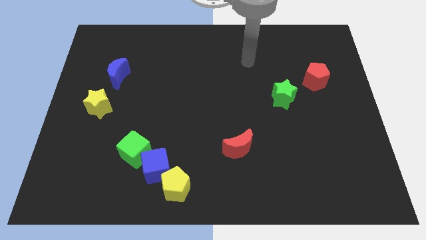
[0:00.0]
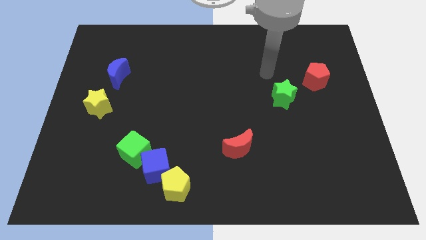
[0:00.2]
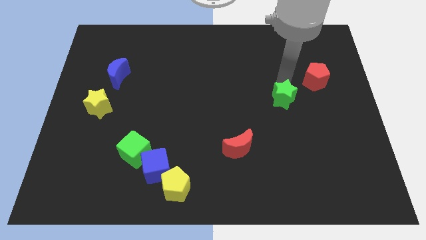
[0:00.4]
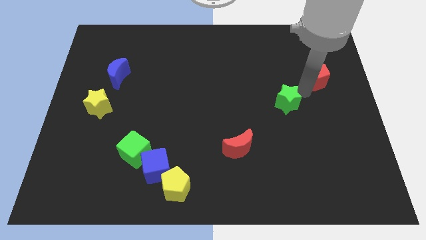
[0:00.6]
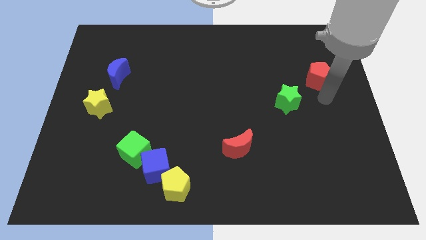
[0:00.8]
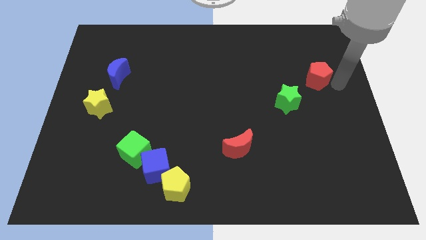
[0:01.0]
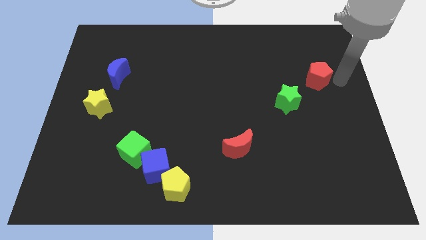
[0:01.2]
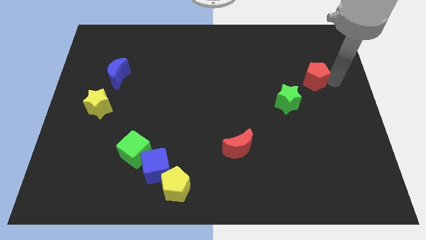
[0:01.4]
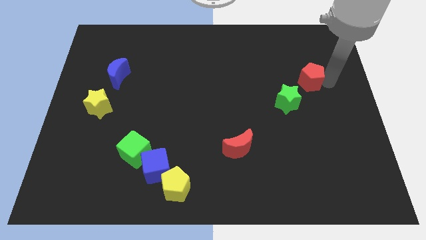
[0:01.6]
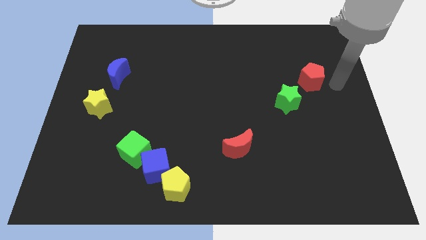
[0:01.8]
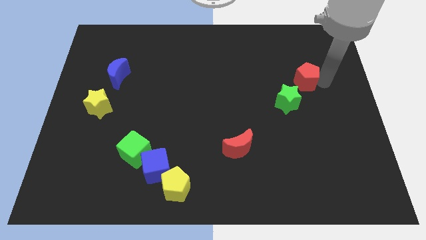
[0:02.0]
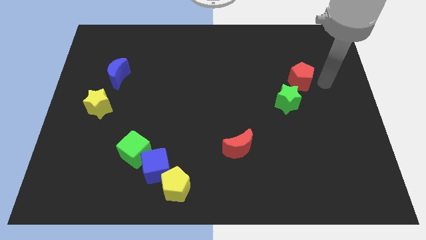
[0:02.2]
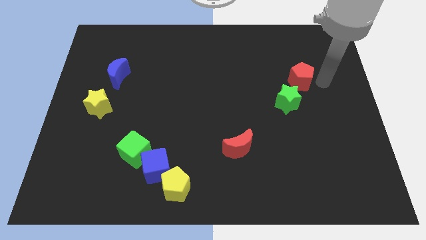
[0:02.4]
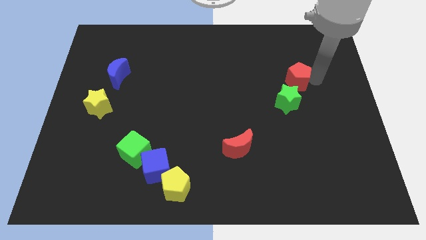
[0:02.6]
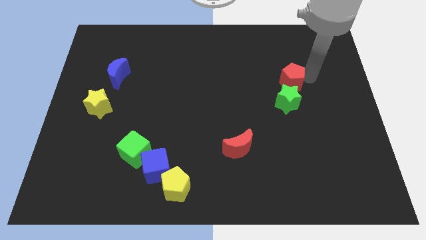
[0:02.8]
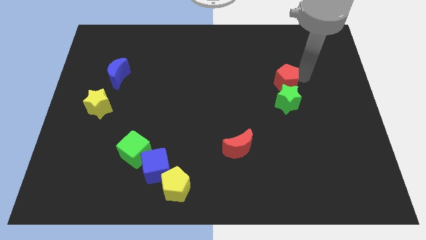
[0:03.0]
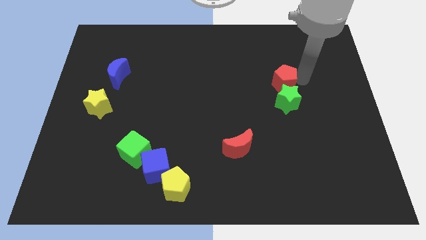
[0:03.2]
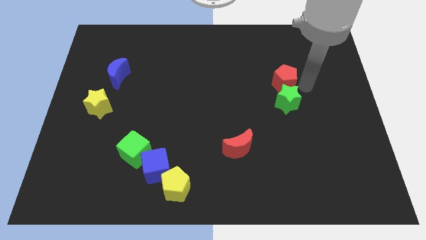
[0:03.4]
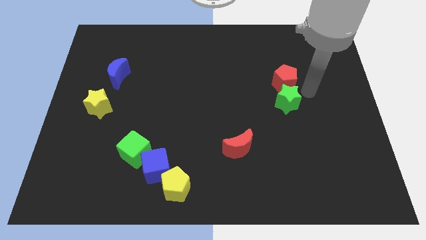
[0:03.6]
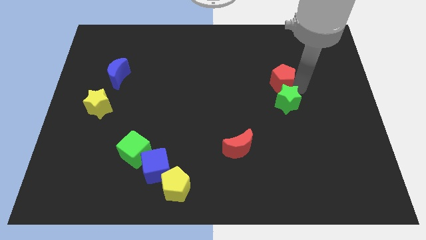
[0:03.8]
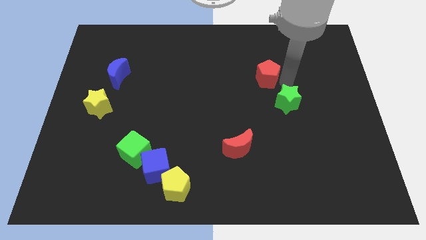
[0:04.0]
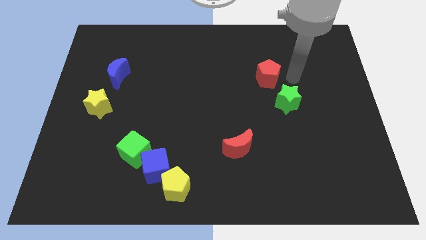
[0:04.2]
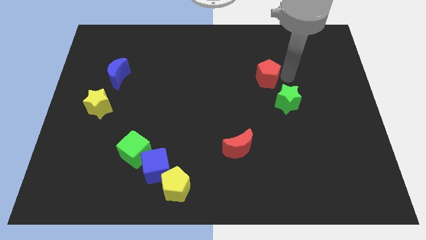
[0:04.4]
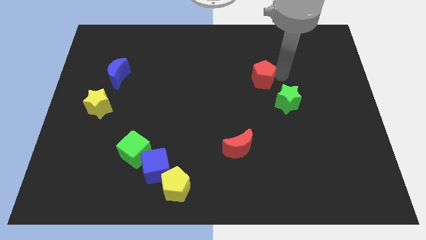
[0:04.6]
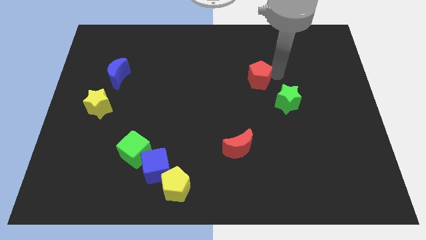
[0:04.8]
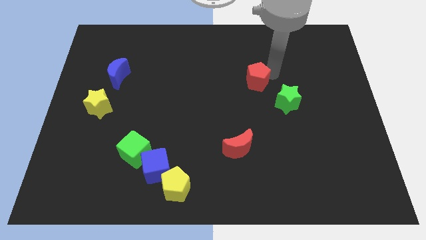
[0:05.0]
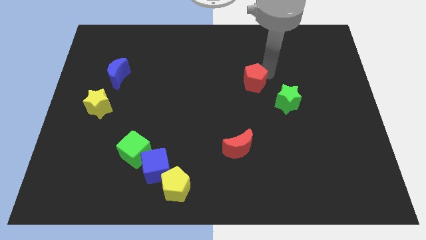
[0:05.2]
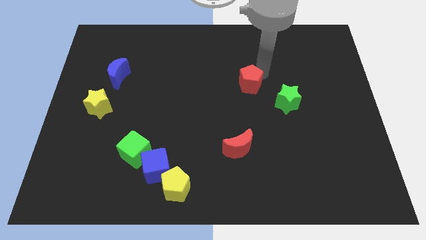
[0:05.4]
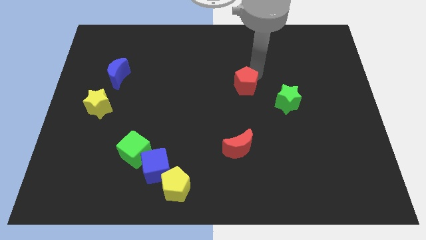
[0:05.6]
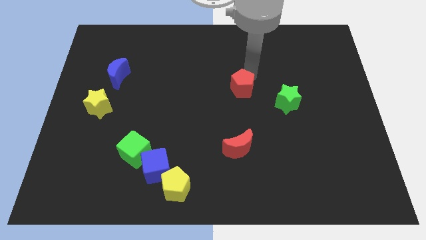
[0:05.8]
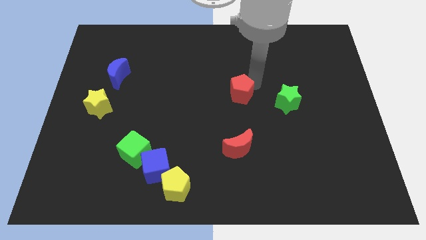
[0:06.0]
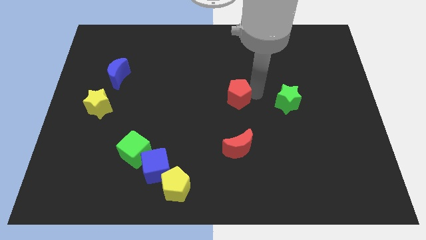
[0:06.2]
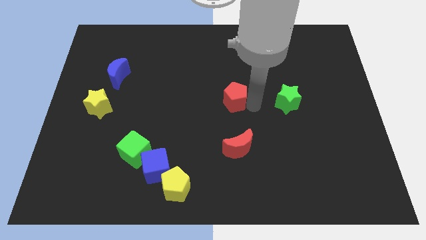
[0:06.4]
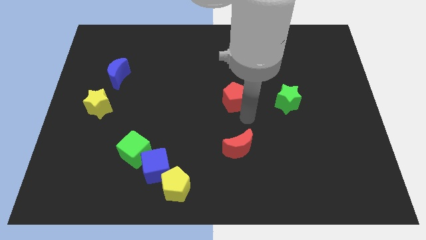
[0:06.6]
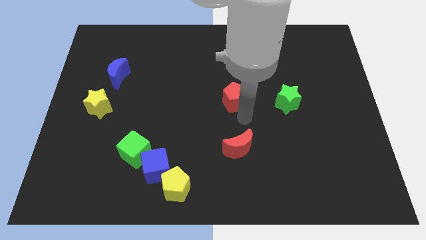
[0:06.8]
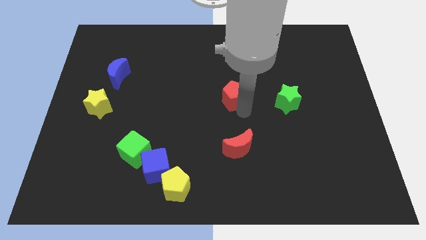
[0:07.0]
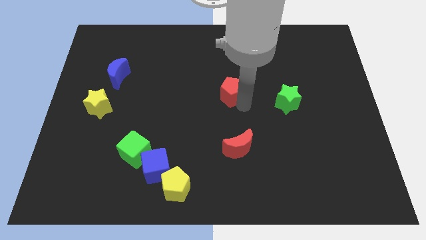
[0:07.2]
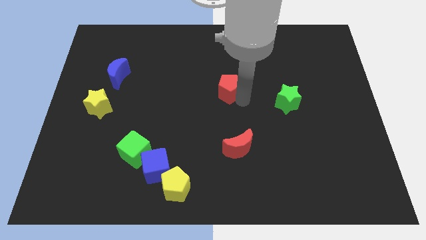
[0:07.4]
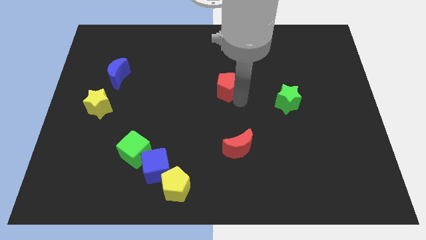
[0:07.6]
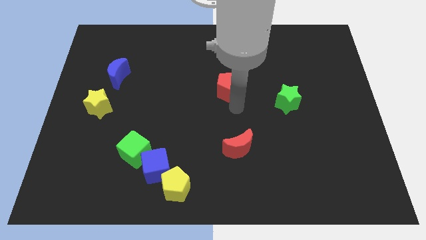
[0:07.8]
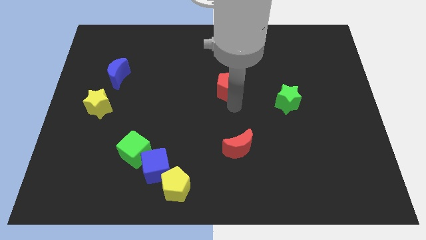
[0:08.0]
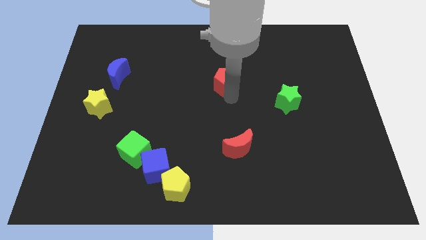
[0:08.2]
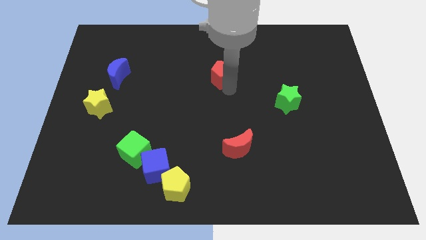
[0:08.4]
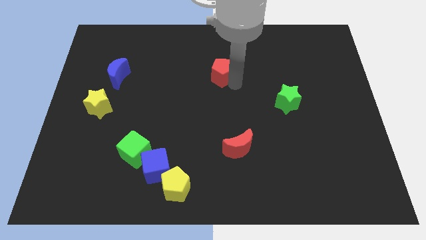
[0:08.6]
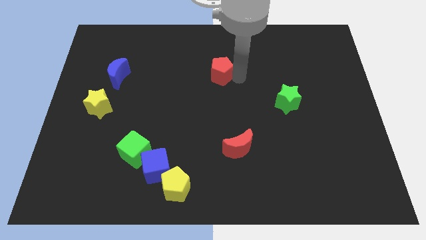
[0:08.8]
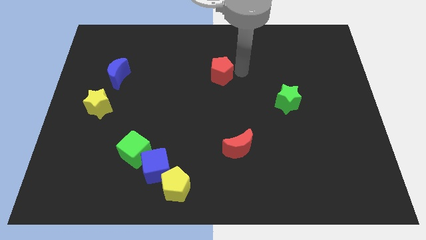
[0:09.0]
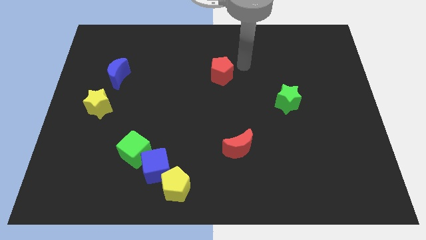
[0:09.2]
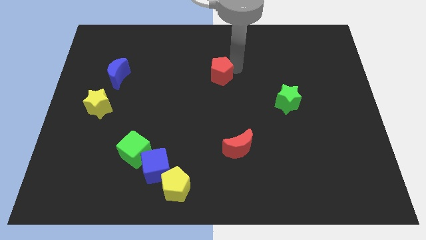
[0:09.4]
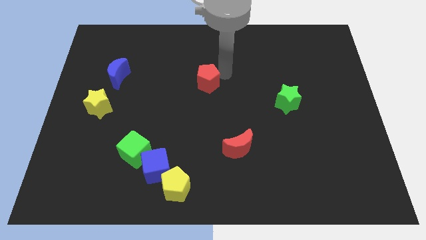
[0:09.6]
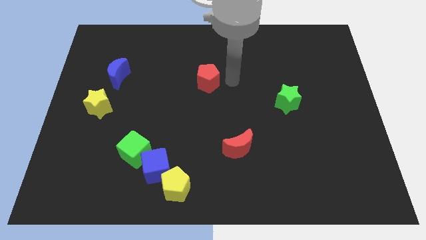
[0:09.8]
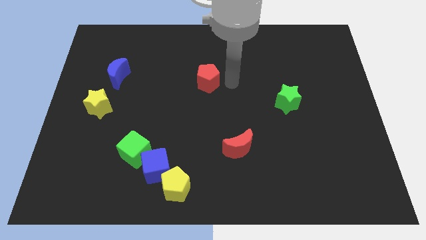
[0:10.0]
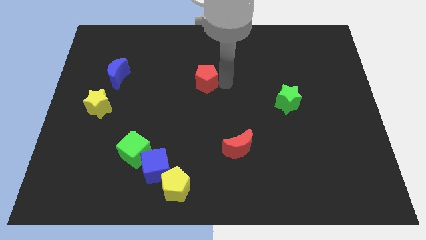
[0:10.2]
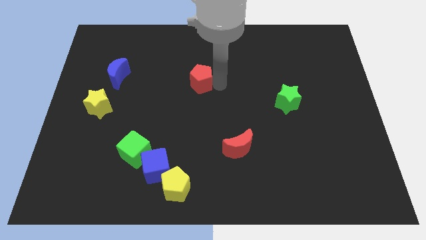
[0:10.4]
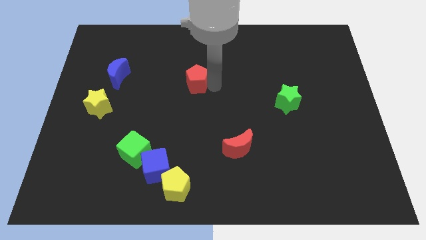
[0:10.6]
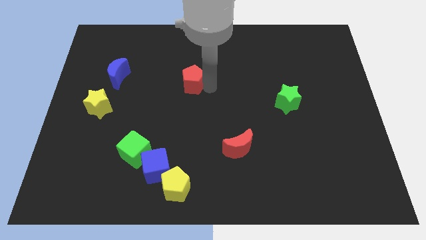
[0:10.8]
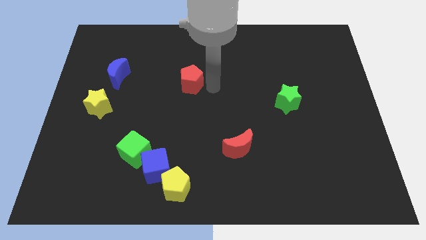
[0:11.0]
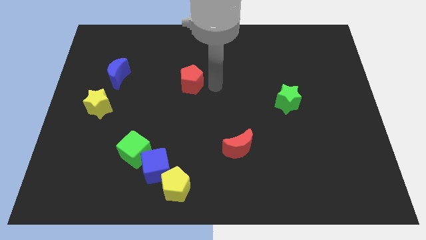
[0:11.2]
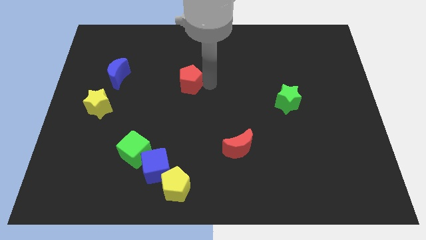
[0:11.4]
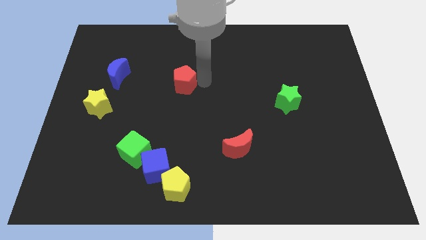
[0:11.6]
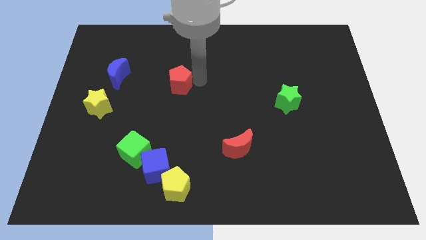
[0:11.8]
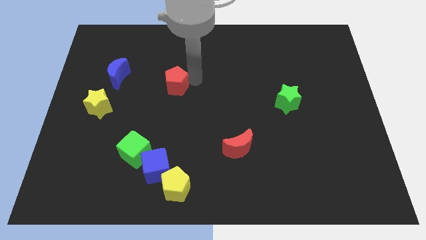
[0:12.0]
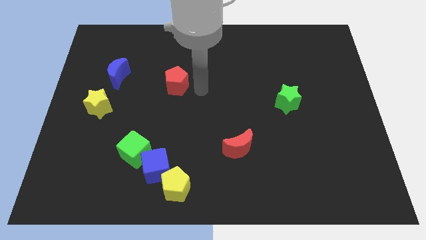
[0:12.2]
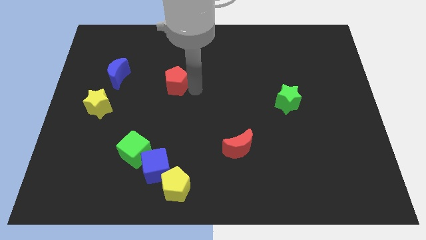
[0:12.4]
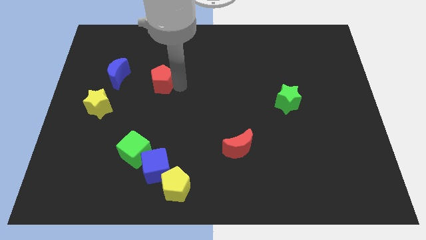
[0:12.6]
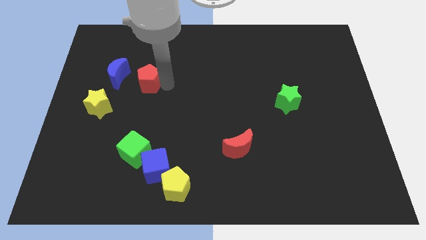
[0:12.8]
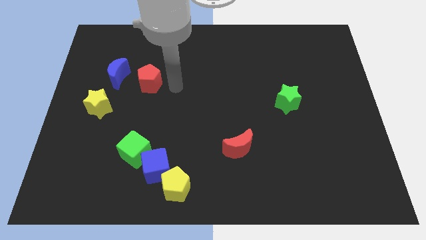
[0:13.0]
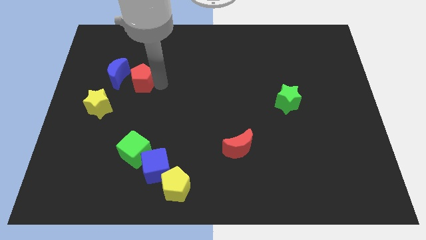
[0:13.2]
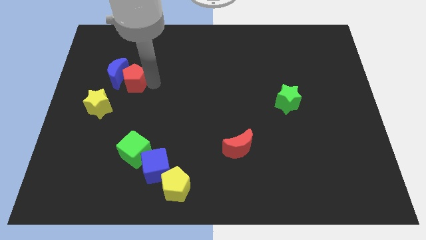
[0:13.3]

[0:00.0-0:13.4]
push the red pentagon towards the blue moon

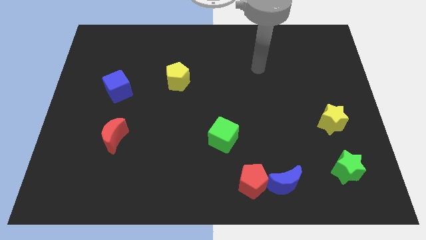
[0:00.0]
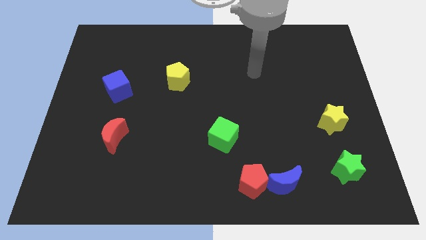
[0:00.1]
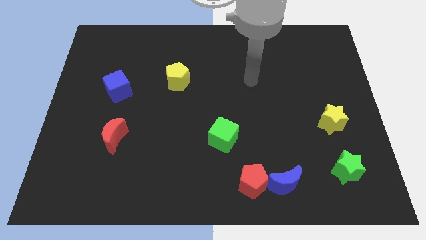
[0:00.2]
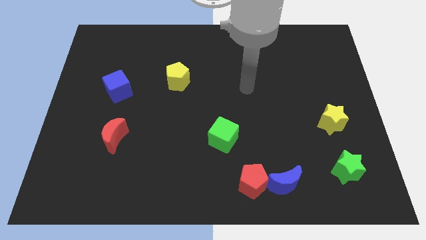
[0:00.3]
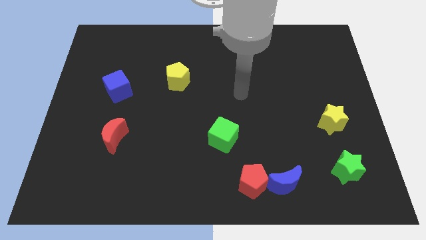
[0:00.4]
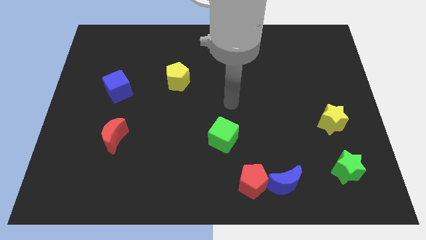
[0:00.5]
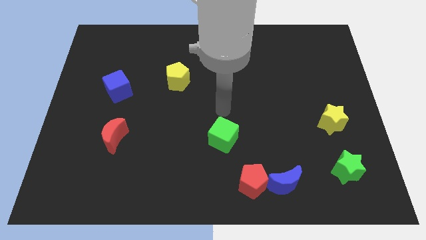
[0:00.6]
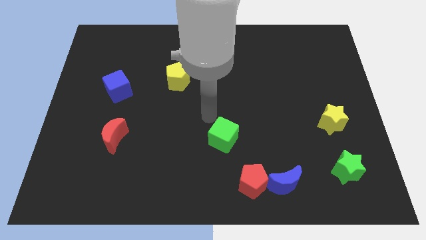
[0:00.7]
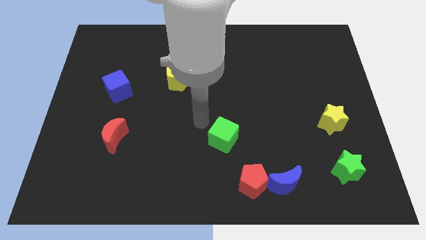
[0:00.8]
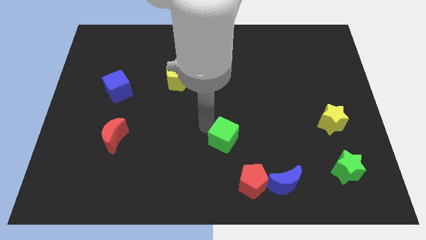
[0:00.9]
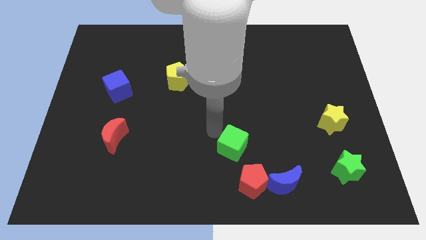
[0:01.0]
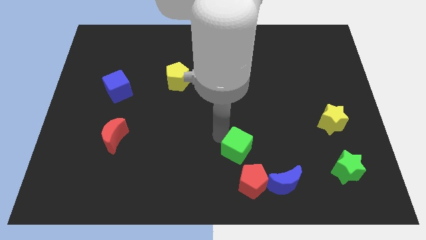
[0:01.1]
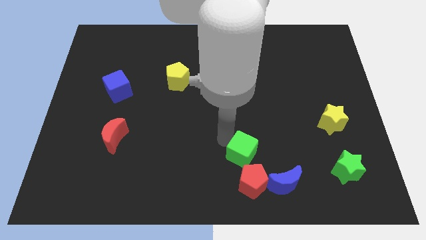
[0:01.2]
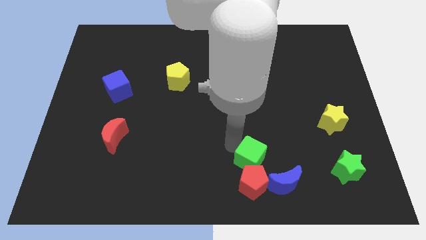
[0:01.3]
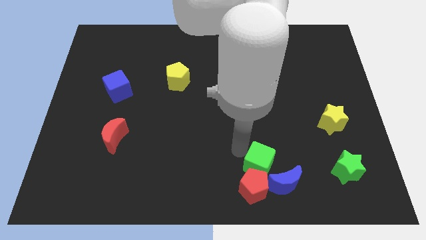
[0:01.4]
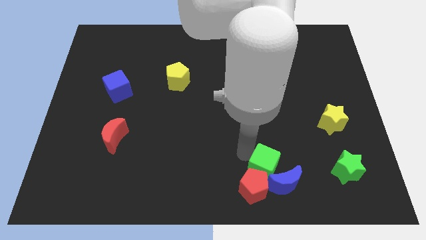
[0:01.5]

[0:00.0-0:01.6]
move the green cube to the blue moon

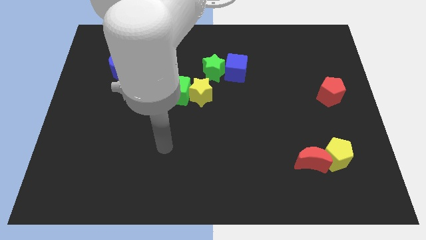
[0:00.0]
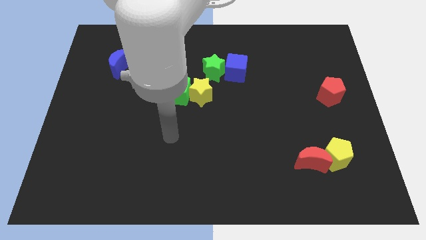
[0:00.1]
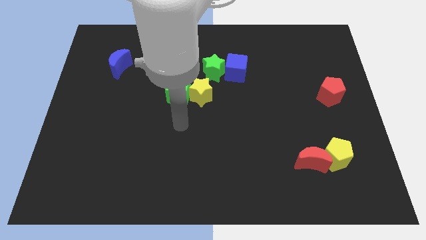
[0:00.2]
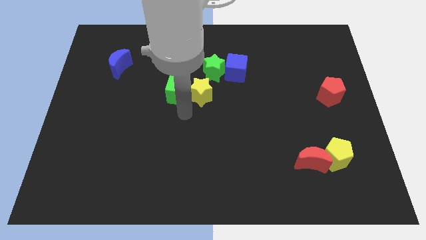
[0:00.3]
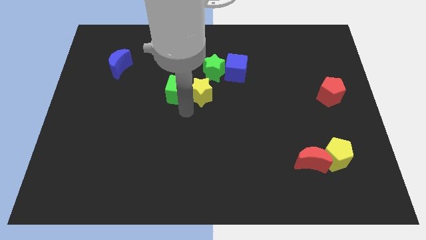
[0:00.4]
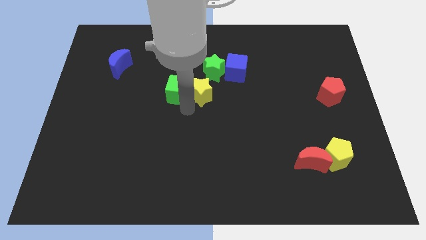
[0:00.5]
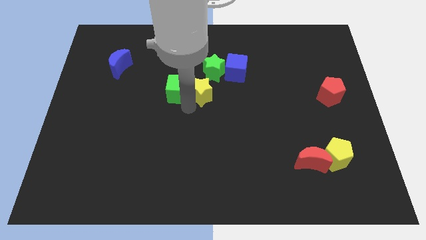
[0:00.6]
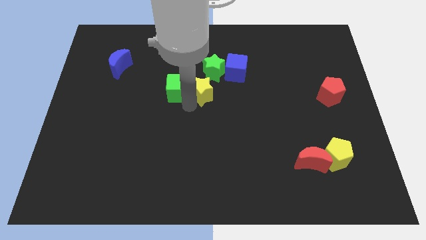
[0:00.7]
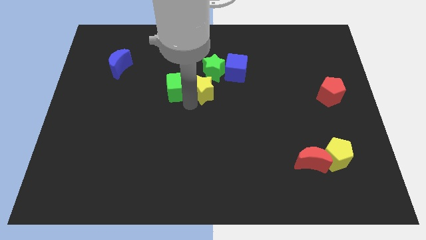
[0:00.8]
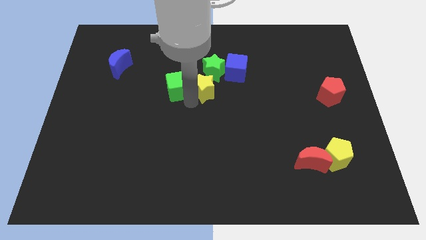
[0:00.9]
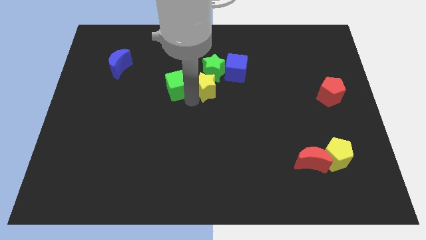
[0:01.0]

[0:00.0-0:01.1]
push the yellow star towards the green star
